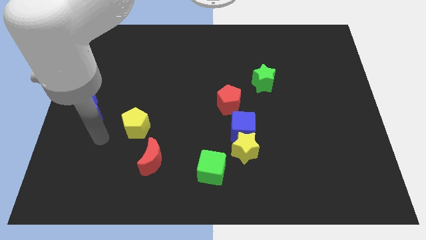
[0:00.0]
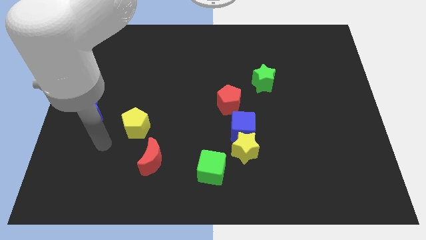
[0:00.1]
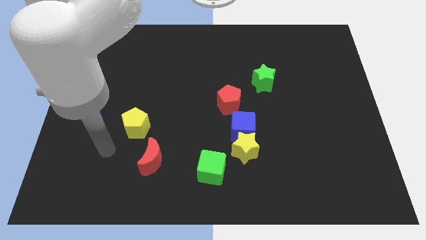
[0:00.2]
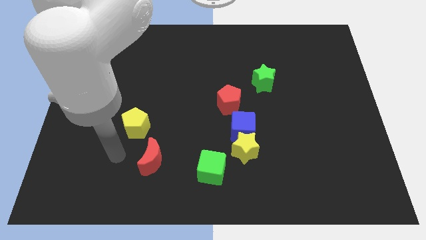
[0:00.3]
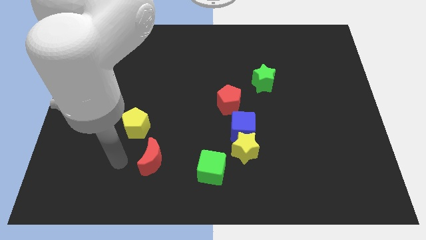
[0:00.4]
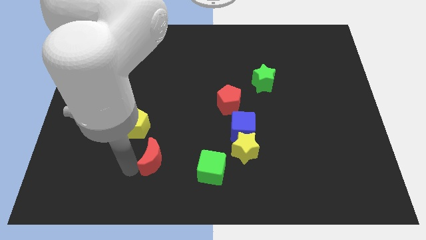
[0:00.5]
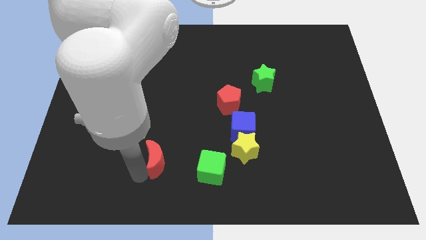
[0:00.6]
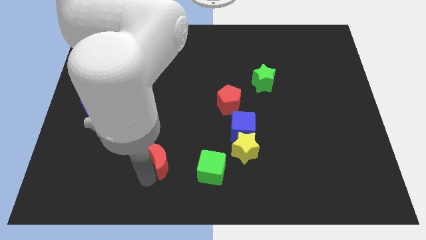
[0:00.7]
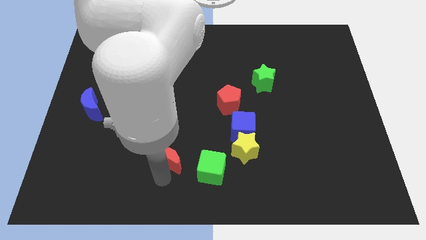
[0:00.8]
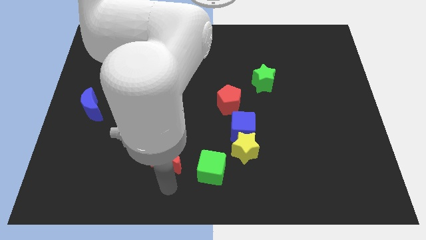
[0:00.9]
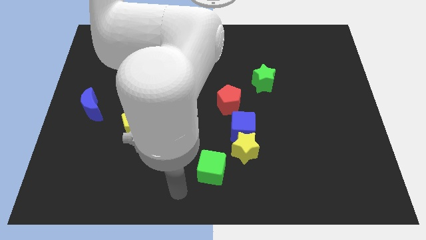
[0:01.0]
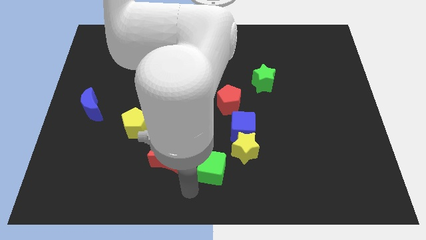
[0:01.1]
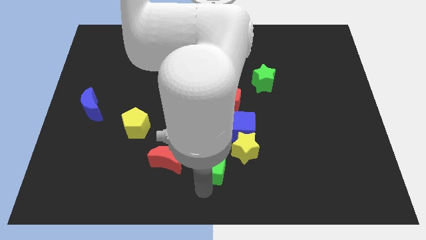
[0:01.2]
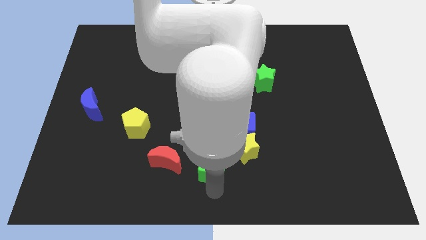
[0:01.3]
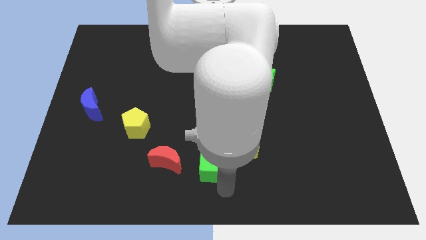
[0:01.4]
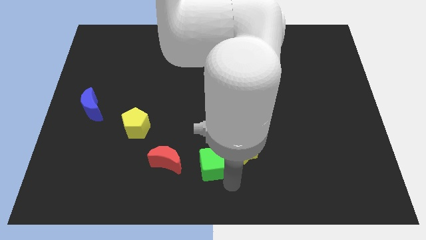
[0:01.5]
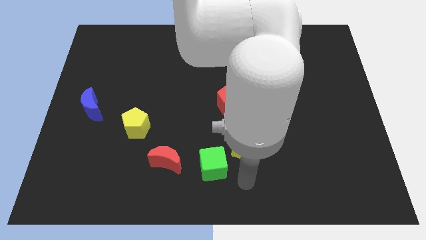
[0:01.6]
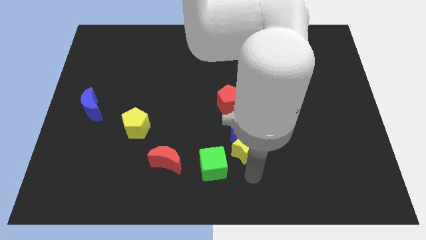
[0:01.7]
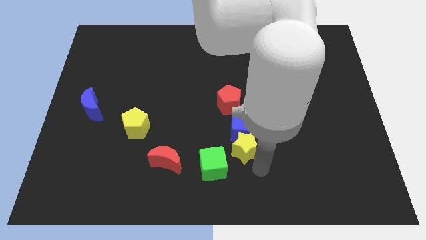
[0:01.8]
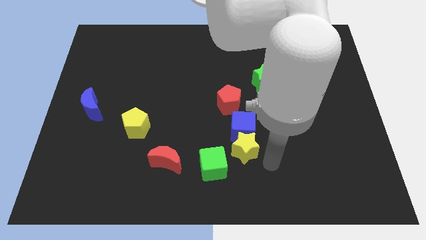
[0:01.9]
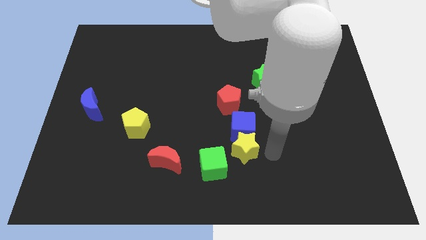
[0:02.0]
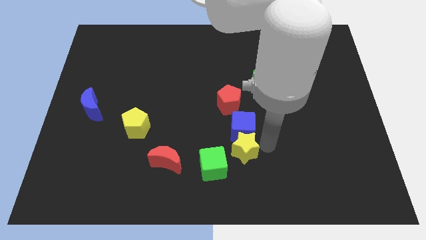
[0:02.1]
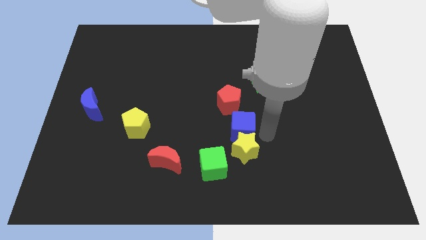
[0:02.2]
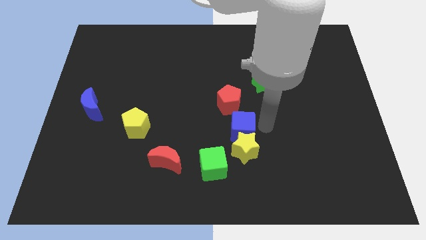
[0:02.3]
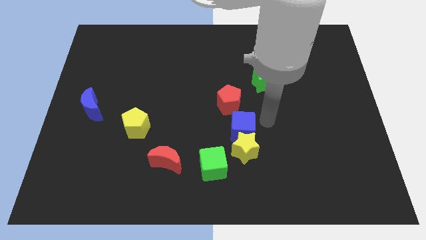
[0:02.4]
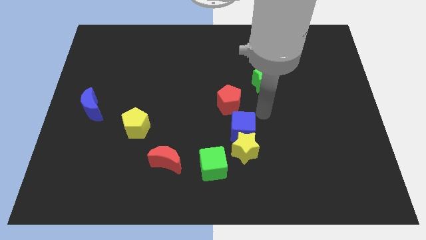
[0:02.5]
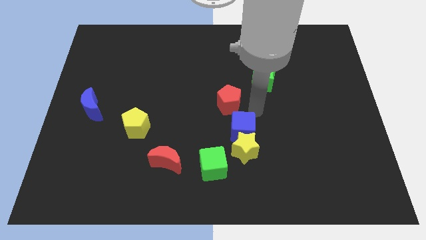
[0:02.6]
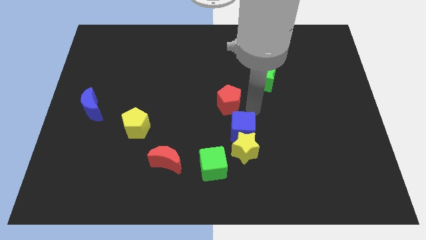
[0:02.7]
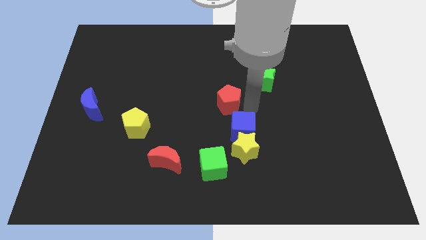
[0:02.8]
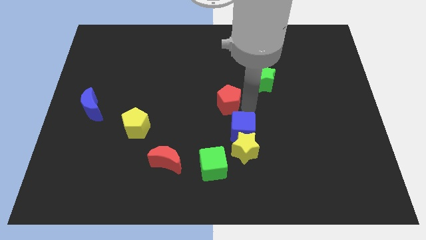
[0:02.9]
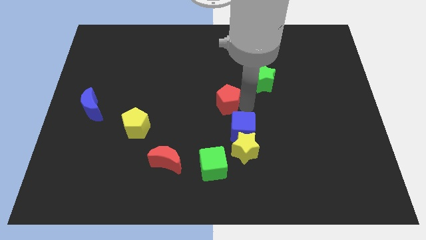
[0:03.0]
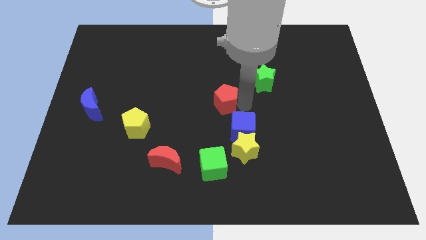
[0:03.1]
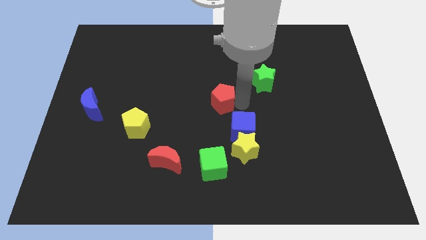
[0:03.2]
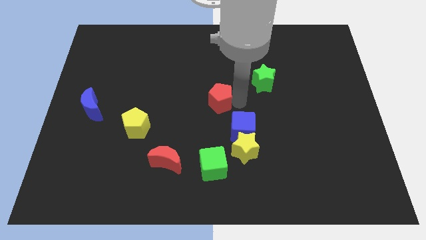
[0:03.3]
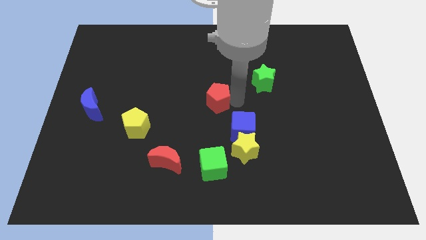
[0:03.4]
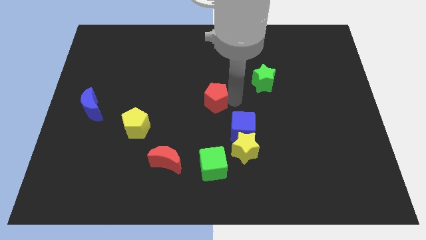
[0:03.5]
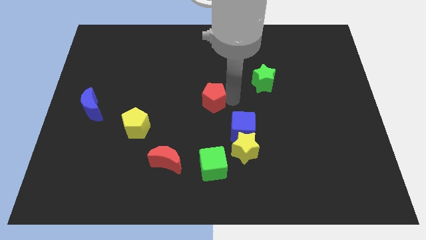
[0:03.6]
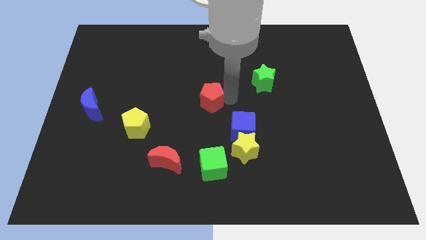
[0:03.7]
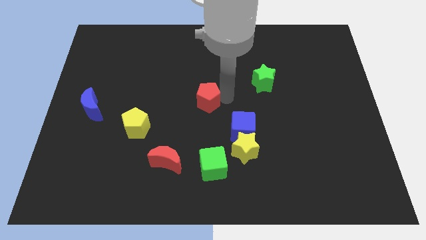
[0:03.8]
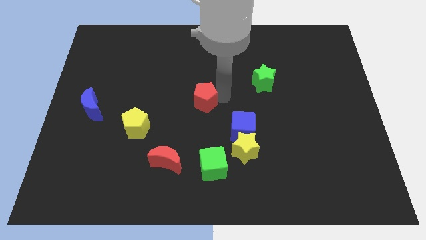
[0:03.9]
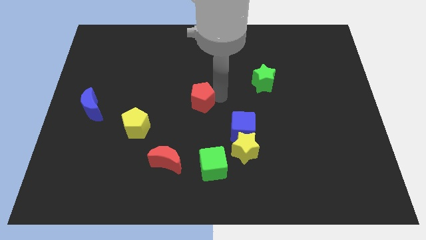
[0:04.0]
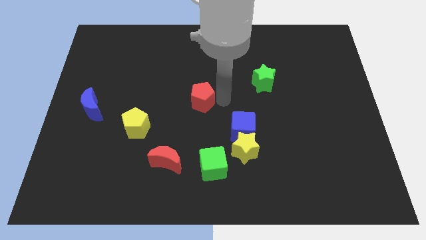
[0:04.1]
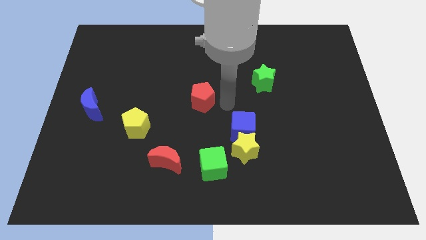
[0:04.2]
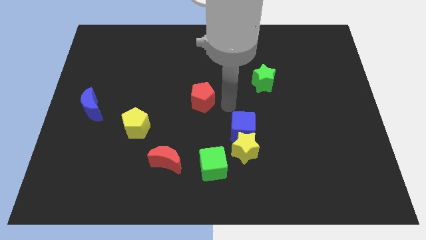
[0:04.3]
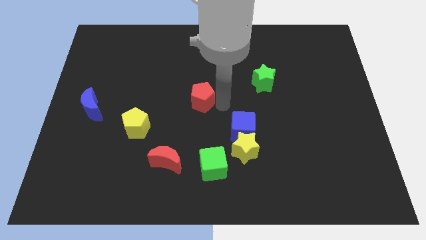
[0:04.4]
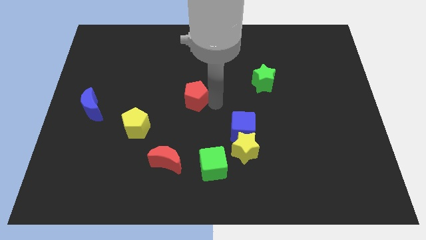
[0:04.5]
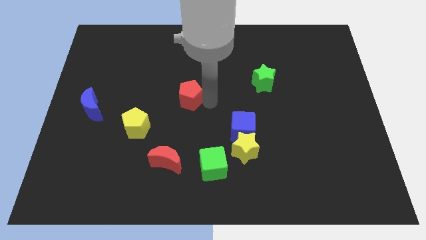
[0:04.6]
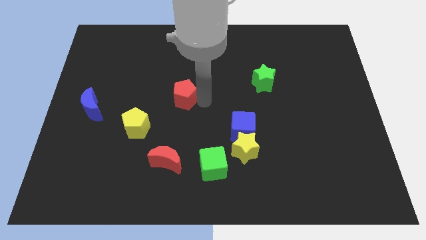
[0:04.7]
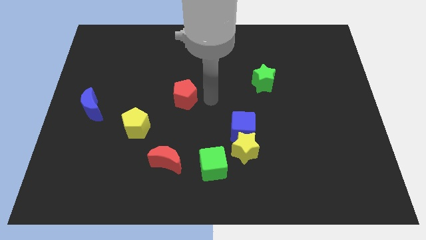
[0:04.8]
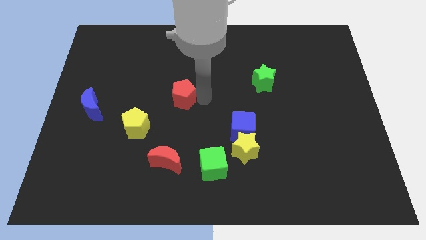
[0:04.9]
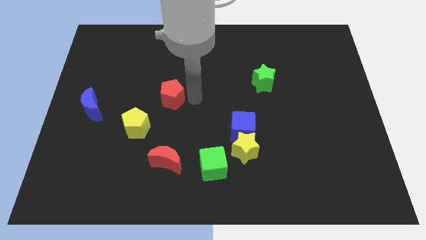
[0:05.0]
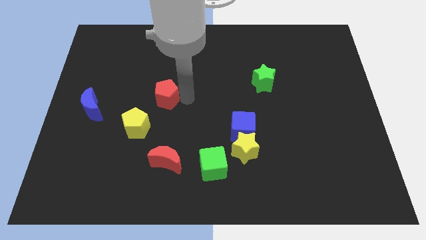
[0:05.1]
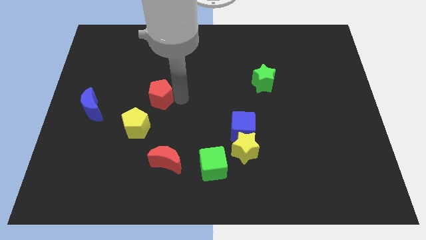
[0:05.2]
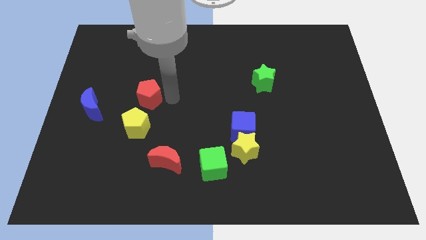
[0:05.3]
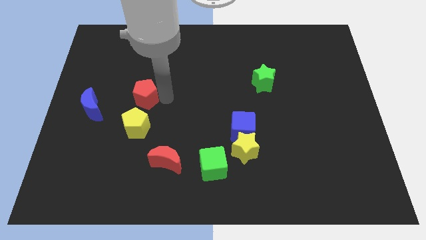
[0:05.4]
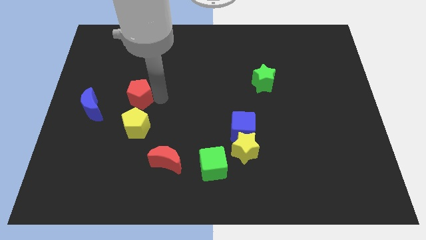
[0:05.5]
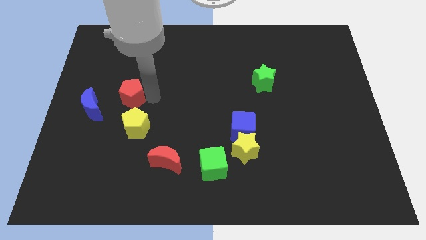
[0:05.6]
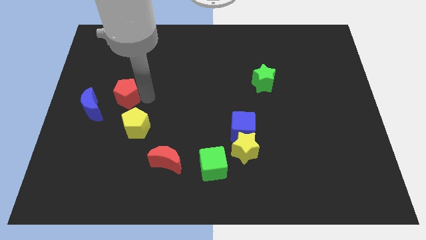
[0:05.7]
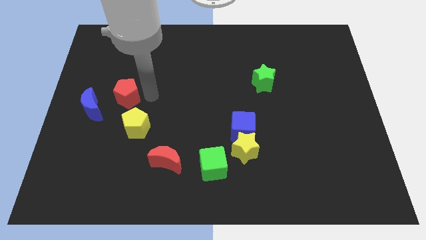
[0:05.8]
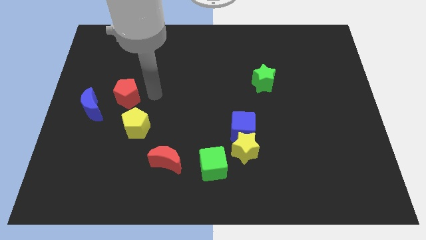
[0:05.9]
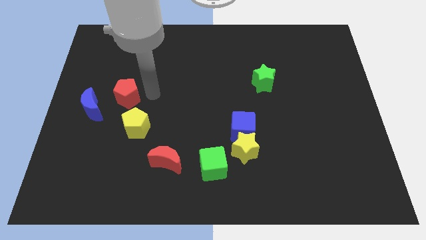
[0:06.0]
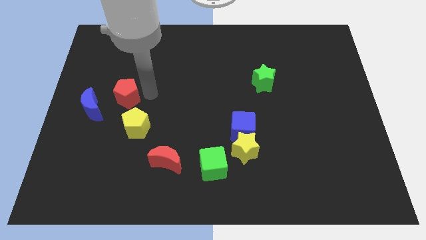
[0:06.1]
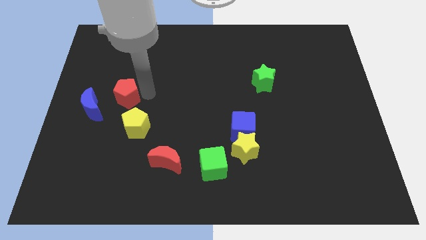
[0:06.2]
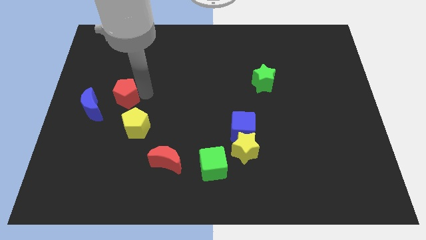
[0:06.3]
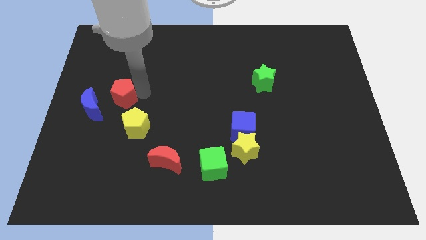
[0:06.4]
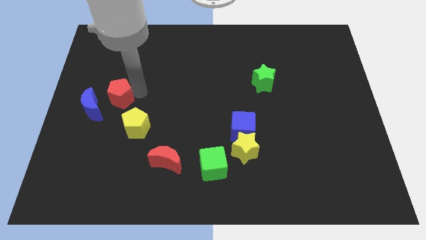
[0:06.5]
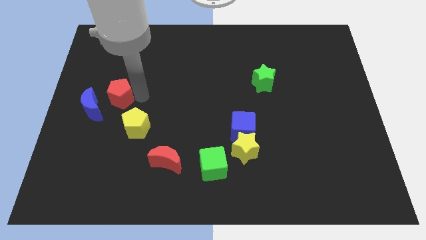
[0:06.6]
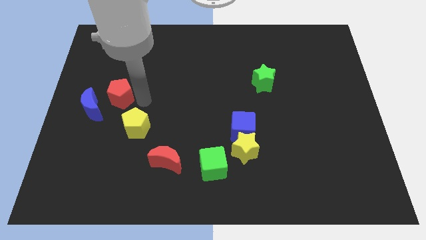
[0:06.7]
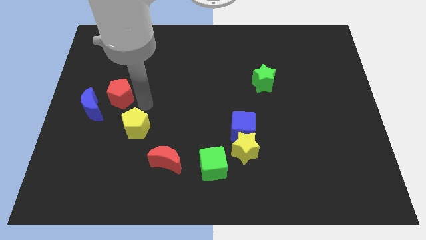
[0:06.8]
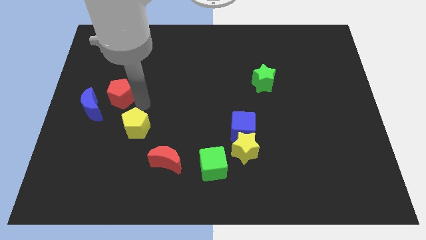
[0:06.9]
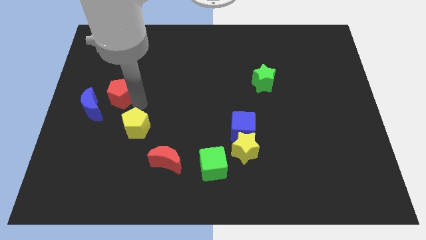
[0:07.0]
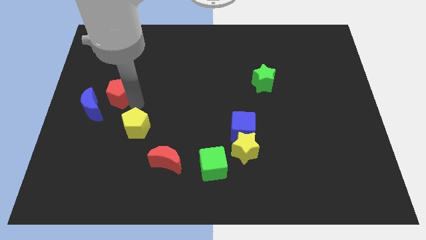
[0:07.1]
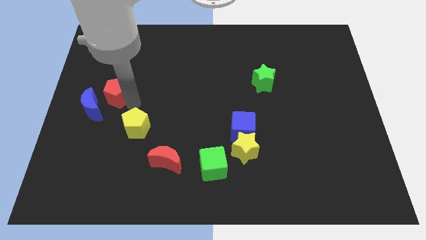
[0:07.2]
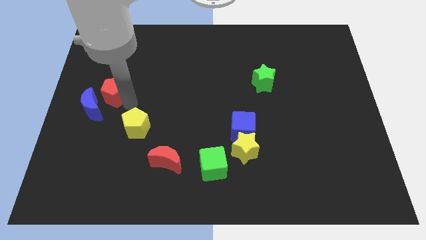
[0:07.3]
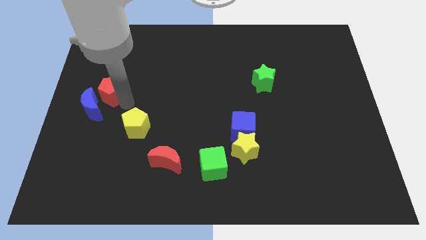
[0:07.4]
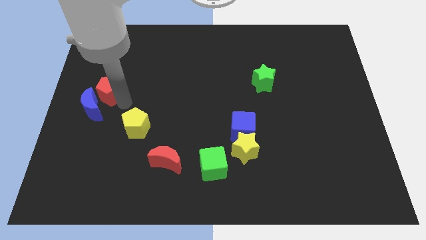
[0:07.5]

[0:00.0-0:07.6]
slide the red pentagon to the left side
